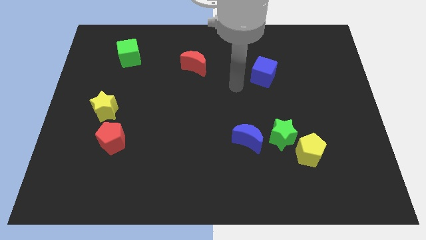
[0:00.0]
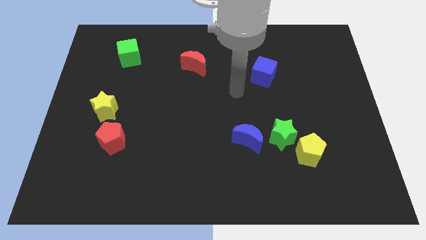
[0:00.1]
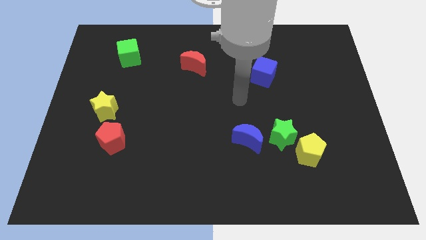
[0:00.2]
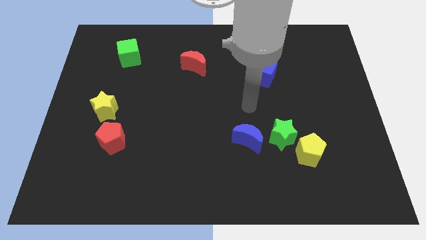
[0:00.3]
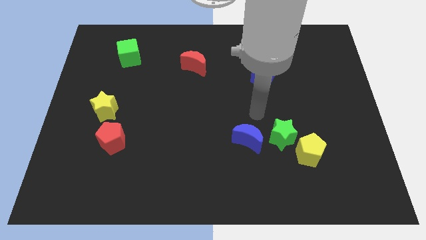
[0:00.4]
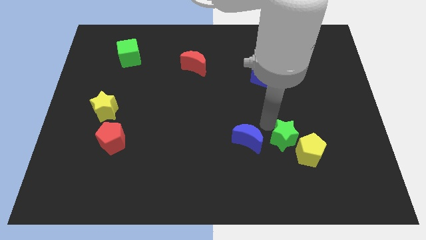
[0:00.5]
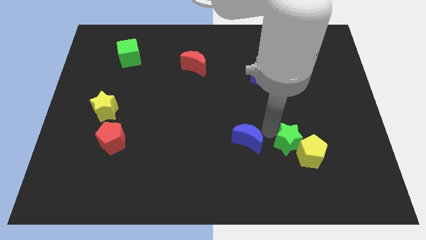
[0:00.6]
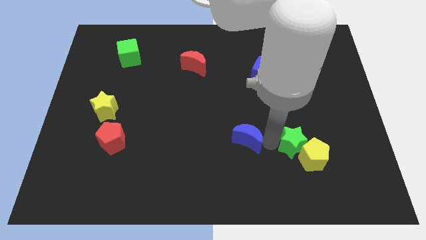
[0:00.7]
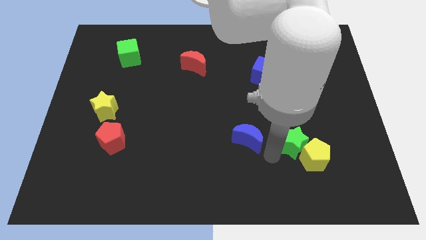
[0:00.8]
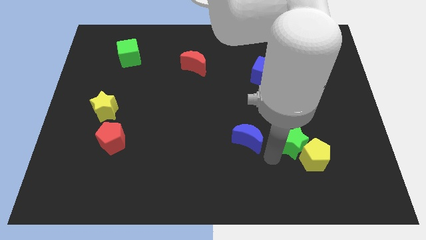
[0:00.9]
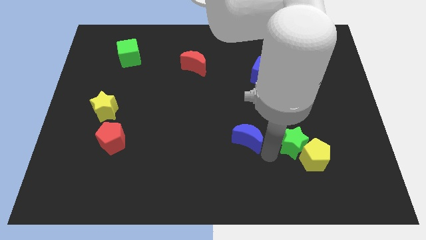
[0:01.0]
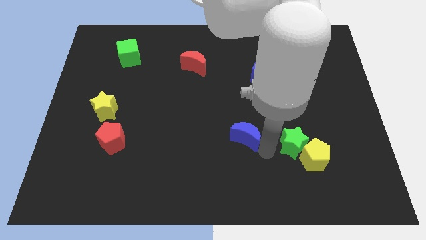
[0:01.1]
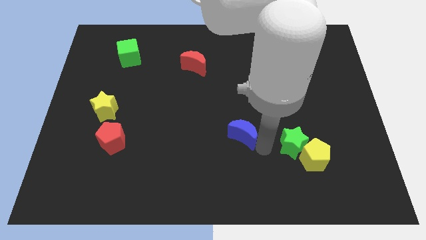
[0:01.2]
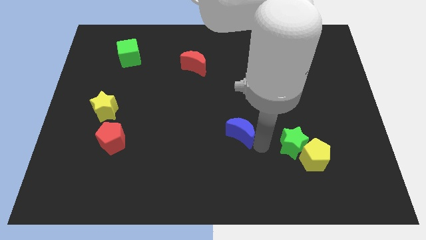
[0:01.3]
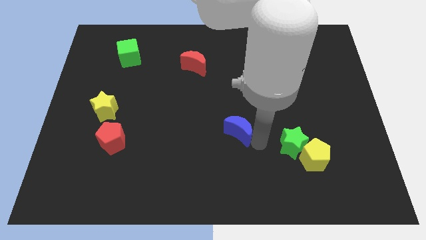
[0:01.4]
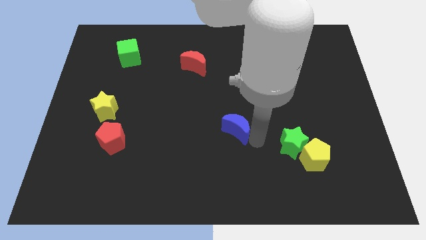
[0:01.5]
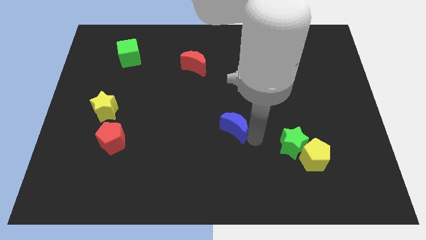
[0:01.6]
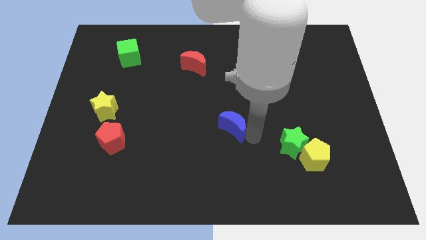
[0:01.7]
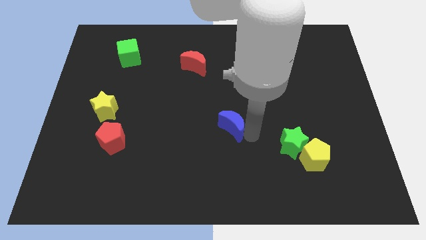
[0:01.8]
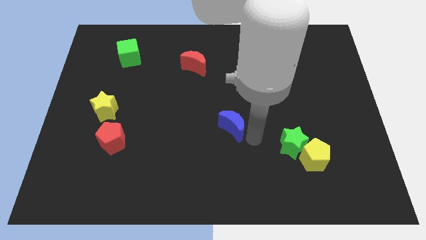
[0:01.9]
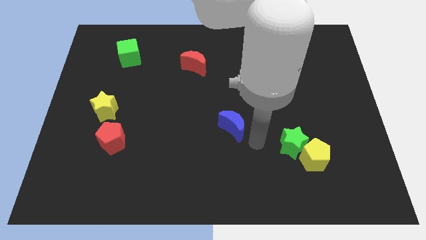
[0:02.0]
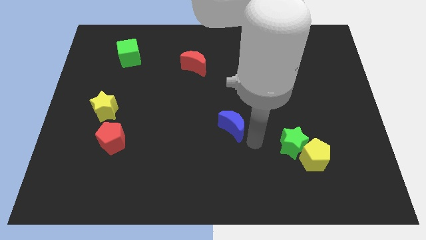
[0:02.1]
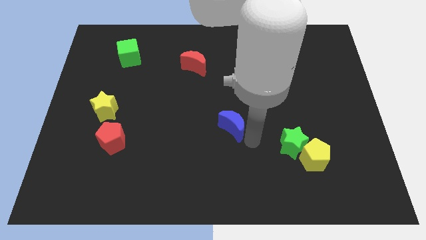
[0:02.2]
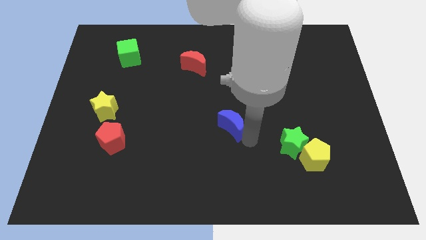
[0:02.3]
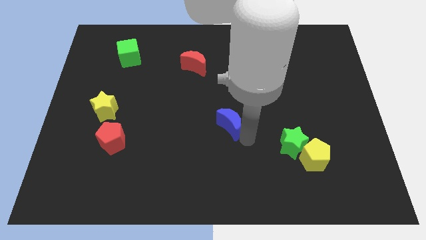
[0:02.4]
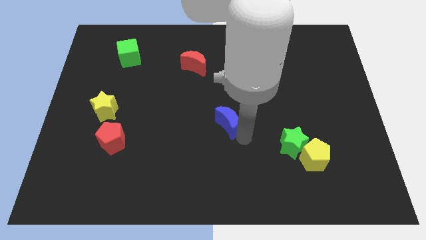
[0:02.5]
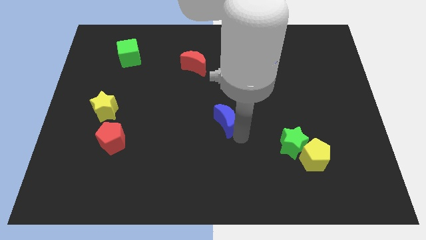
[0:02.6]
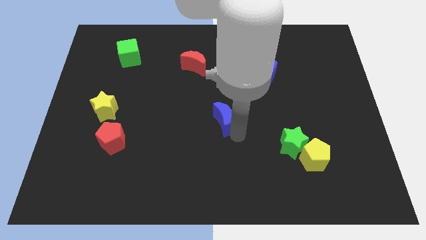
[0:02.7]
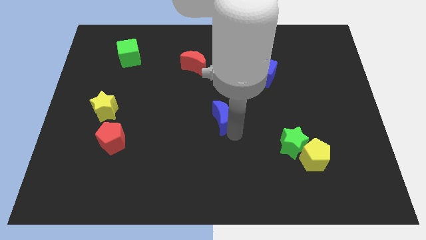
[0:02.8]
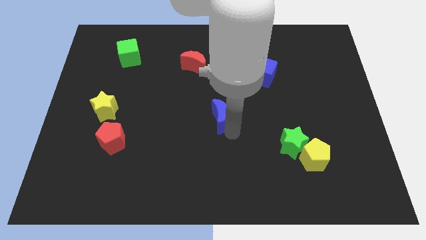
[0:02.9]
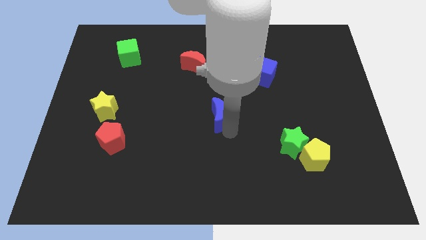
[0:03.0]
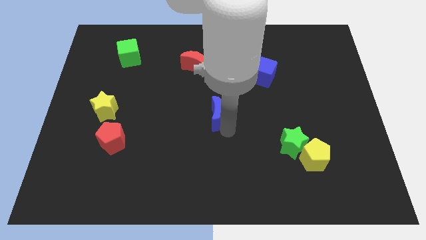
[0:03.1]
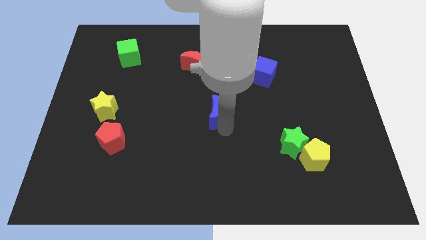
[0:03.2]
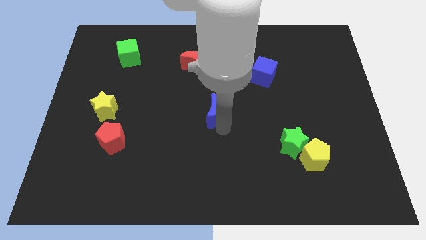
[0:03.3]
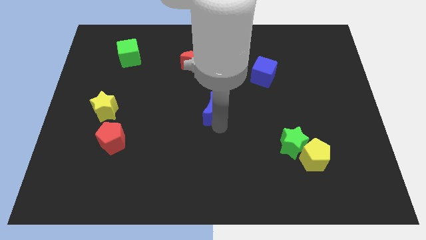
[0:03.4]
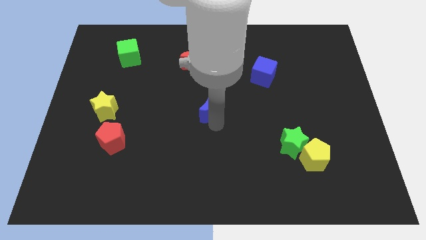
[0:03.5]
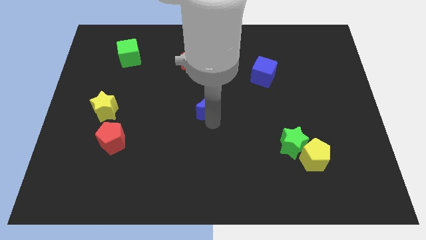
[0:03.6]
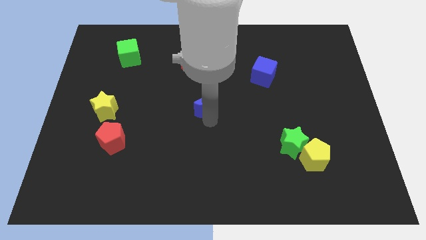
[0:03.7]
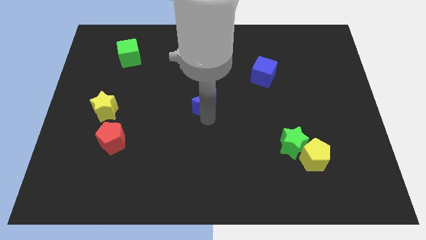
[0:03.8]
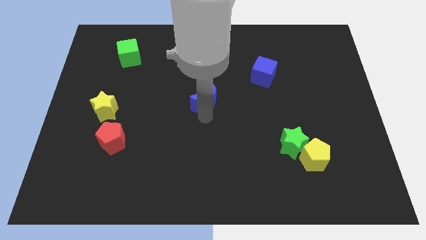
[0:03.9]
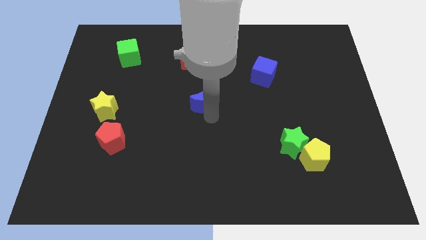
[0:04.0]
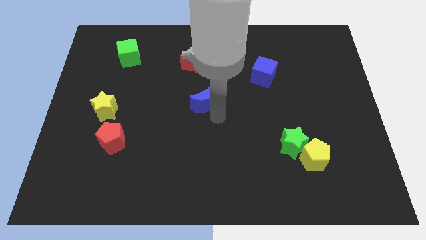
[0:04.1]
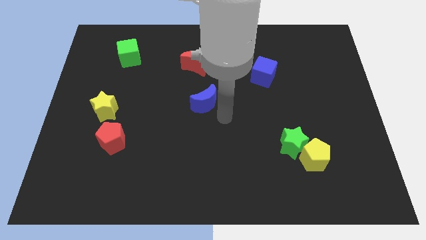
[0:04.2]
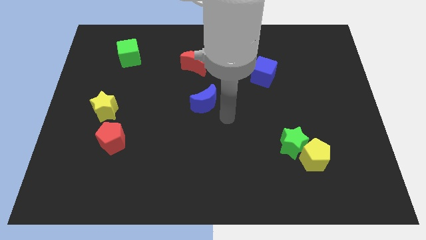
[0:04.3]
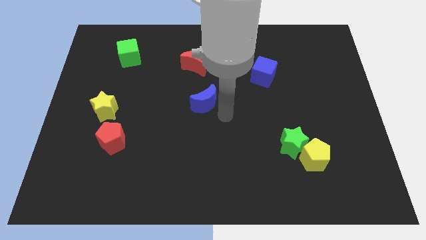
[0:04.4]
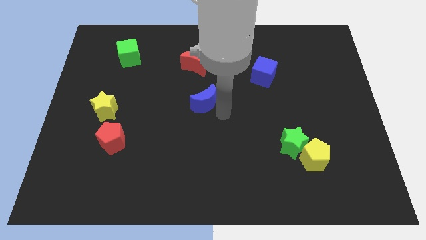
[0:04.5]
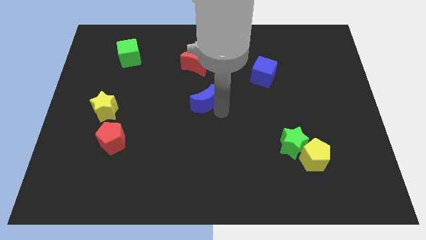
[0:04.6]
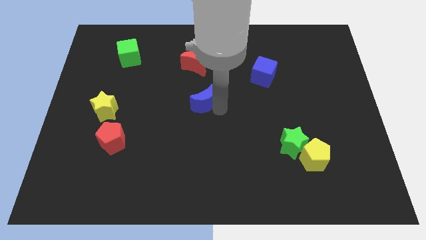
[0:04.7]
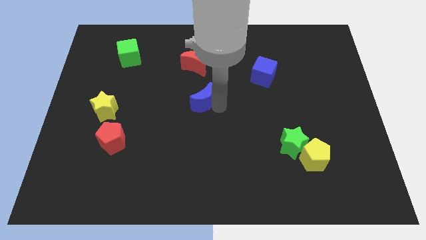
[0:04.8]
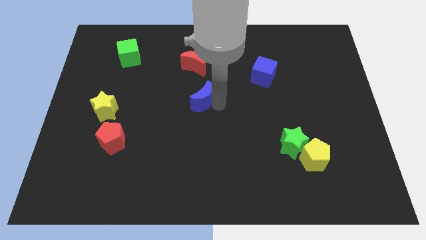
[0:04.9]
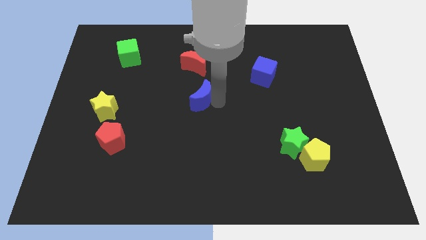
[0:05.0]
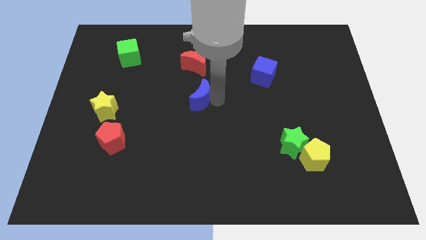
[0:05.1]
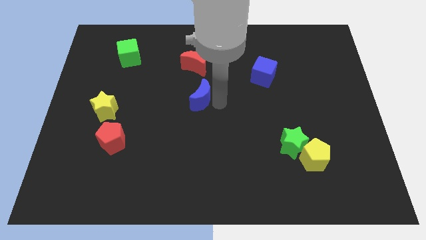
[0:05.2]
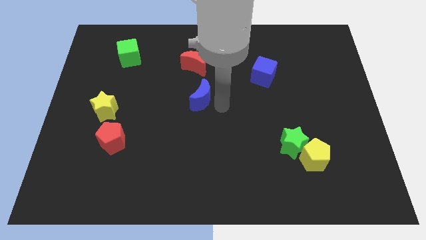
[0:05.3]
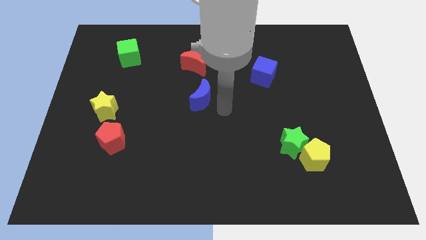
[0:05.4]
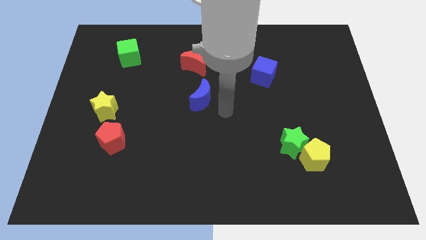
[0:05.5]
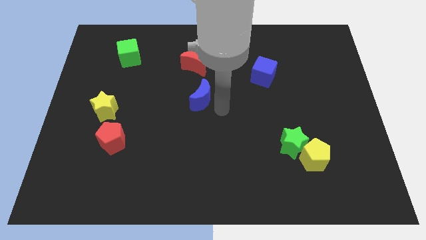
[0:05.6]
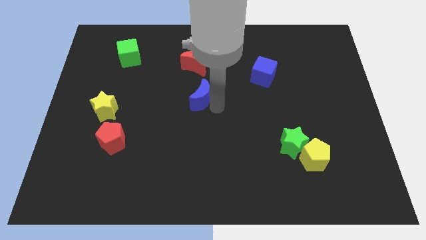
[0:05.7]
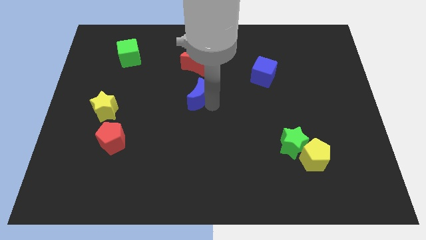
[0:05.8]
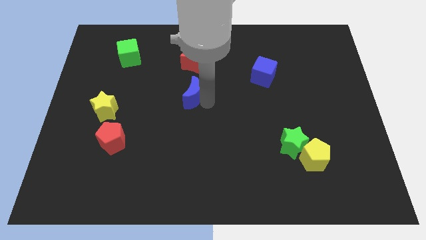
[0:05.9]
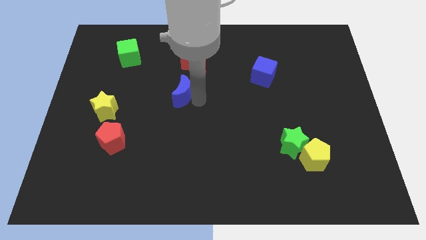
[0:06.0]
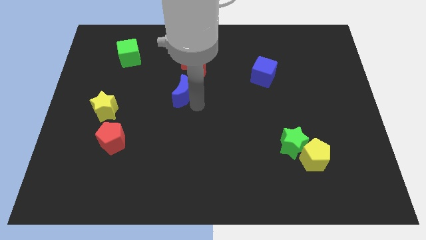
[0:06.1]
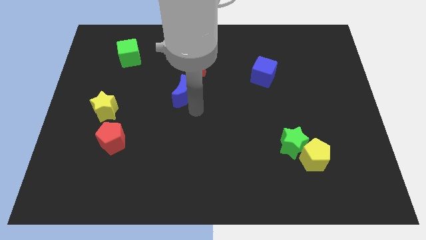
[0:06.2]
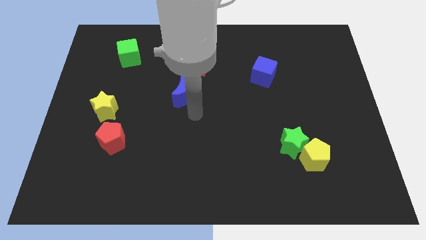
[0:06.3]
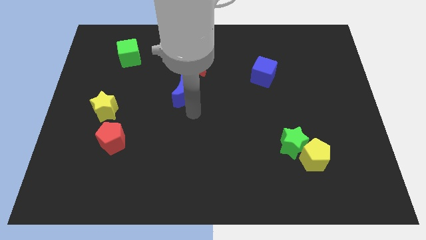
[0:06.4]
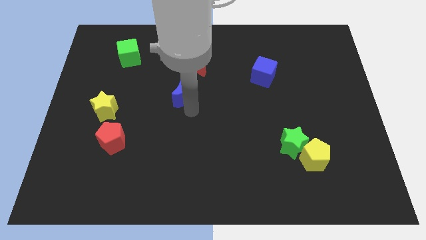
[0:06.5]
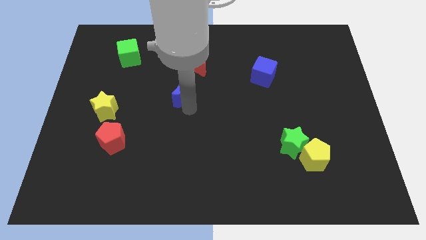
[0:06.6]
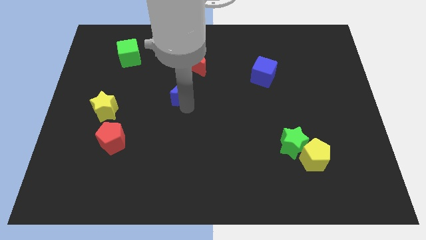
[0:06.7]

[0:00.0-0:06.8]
move the blue moon upwards and left

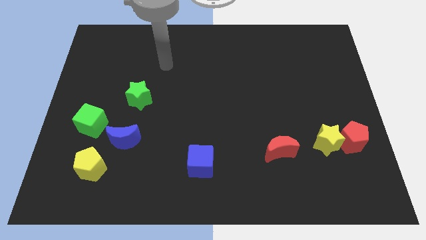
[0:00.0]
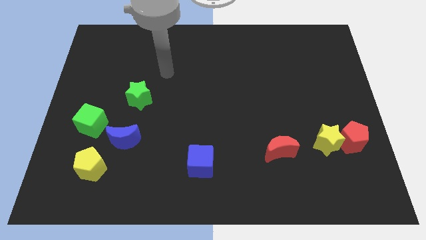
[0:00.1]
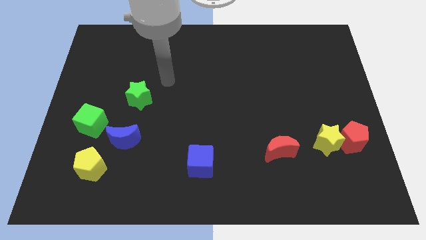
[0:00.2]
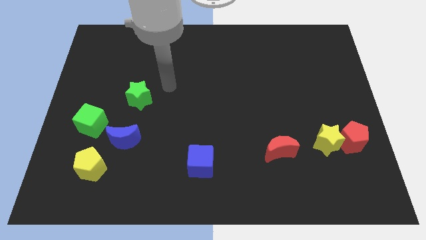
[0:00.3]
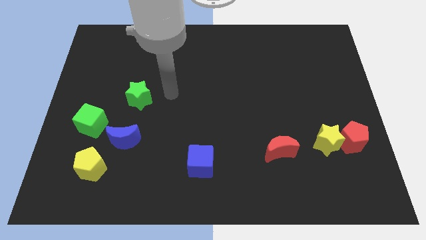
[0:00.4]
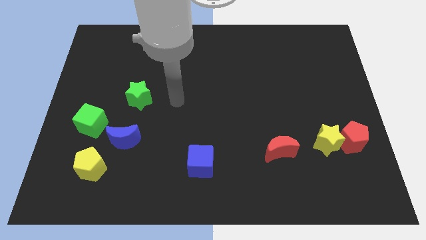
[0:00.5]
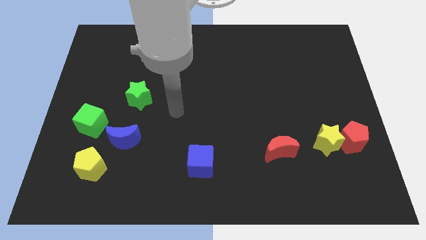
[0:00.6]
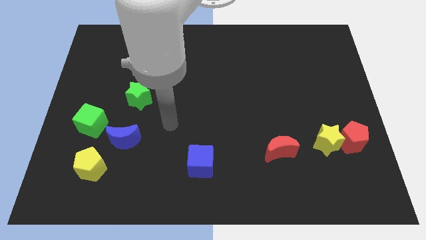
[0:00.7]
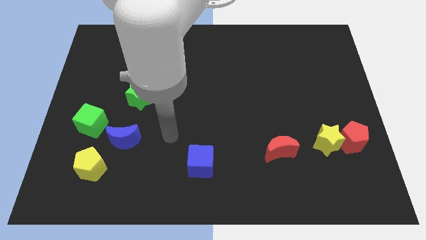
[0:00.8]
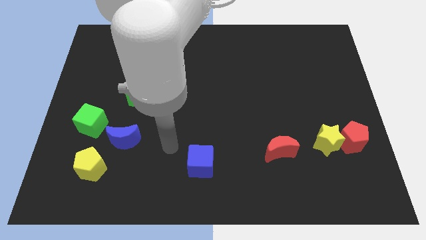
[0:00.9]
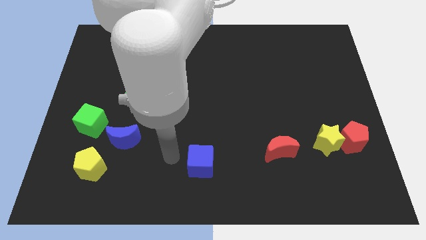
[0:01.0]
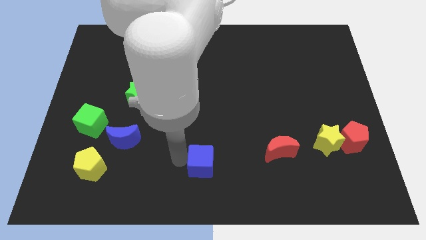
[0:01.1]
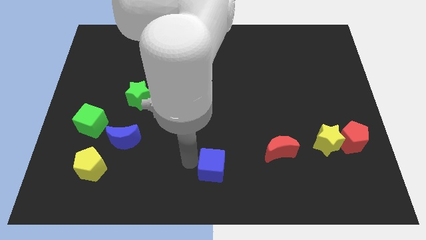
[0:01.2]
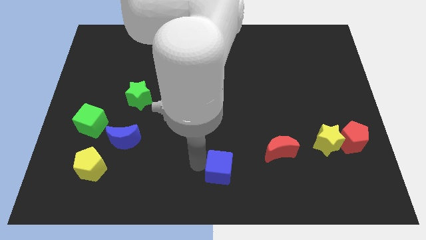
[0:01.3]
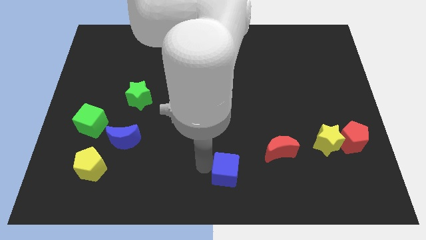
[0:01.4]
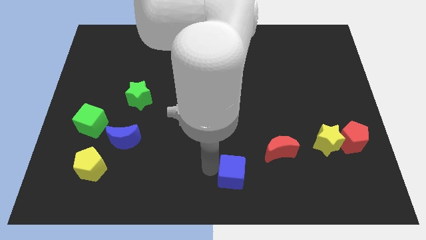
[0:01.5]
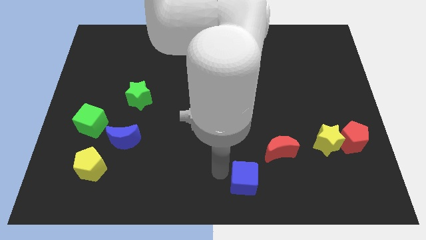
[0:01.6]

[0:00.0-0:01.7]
slightly move the blue cube to the right

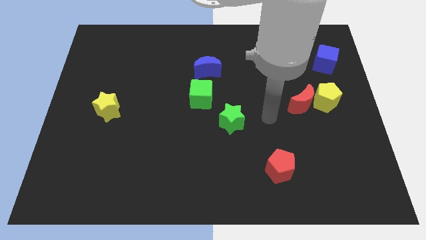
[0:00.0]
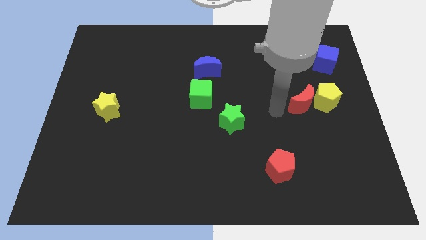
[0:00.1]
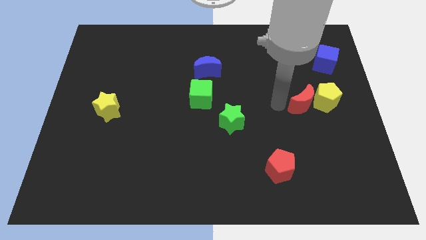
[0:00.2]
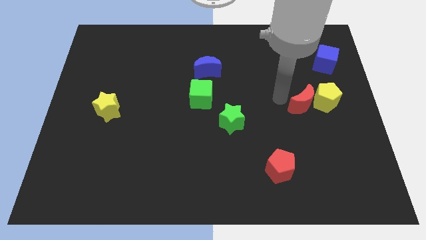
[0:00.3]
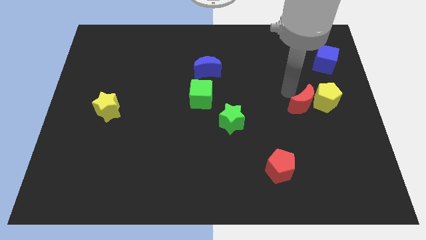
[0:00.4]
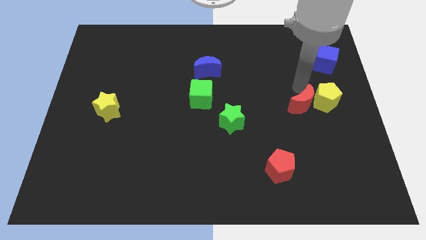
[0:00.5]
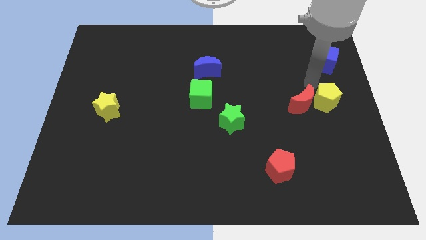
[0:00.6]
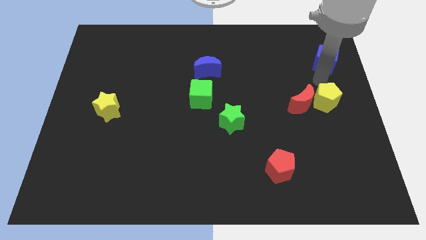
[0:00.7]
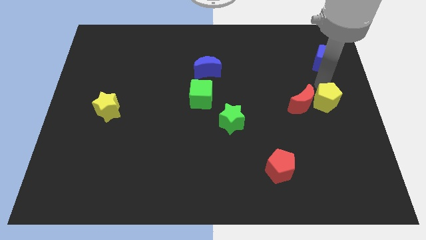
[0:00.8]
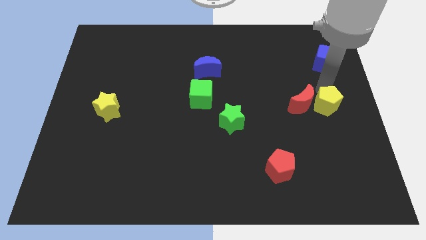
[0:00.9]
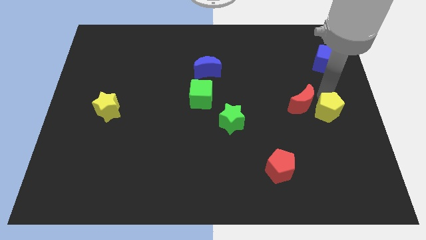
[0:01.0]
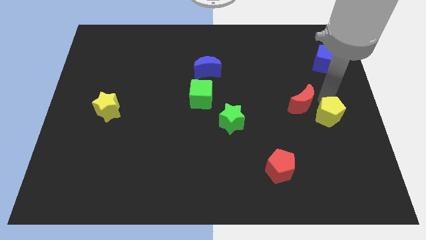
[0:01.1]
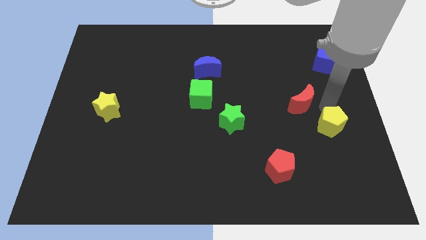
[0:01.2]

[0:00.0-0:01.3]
push the yellow pentagon downwards slightly
